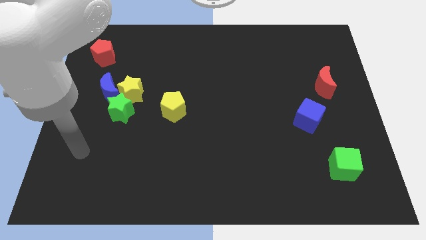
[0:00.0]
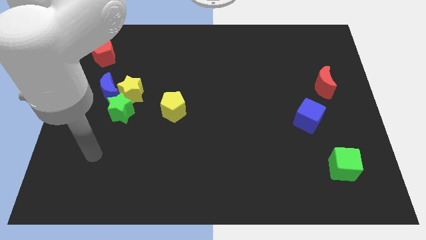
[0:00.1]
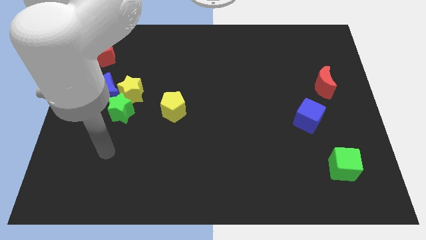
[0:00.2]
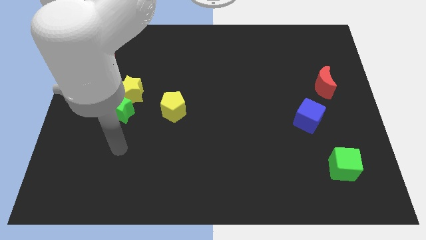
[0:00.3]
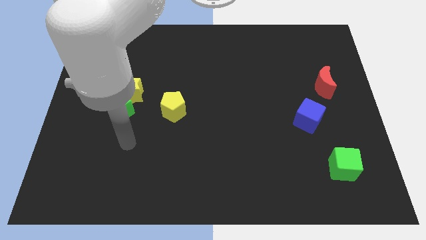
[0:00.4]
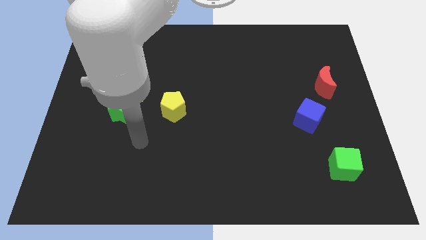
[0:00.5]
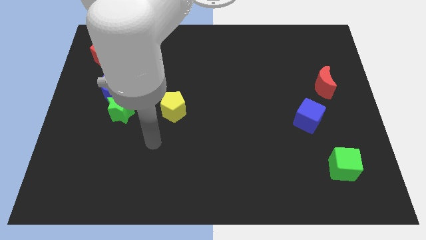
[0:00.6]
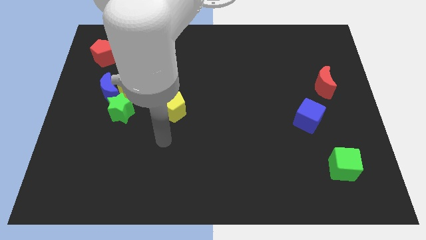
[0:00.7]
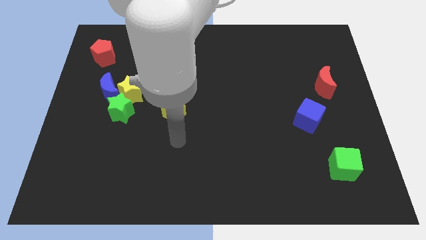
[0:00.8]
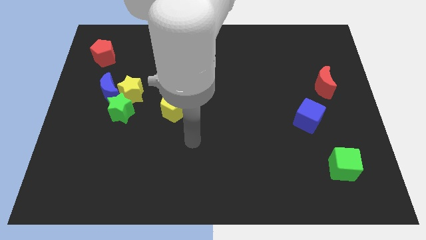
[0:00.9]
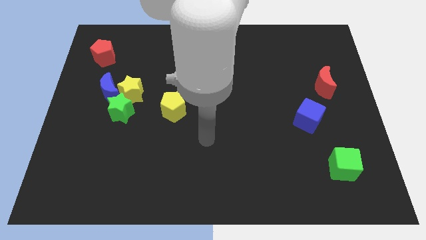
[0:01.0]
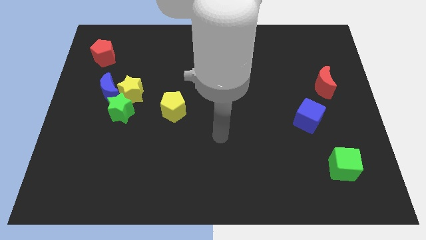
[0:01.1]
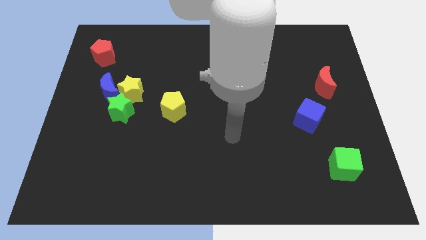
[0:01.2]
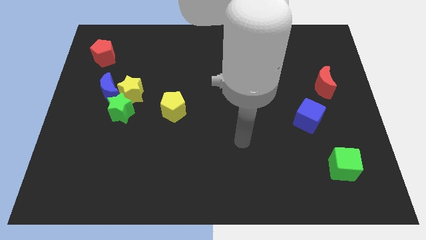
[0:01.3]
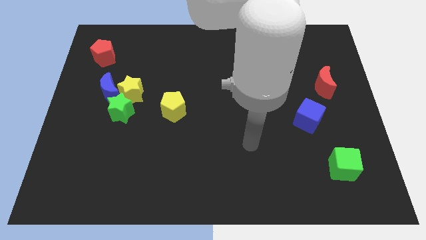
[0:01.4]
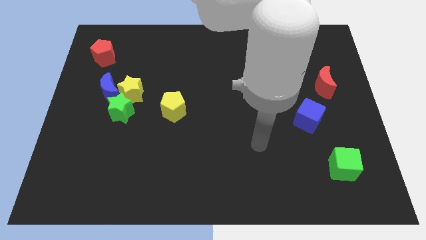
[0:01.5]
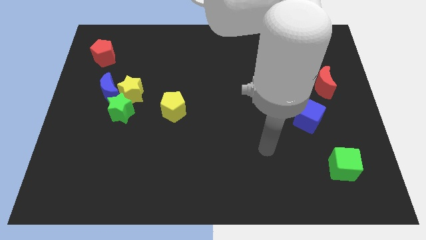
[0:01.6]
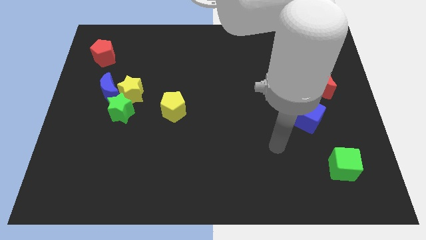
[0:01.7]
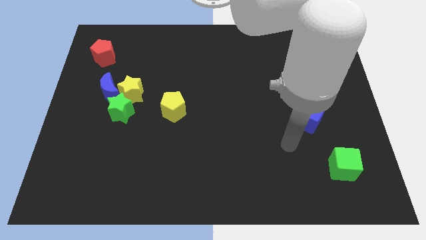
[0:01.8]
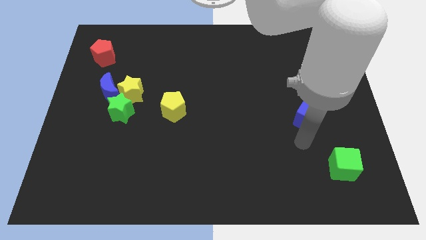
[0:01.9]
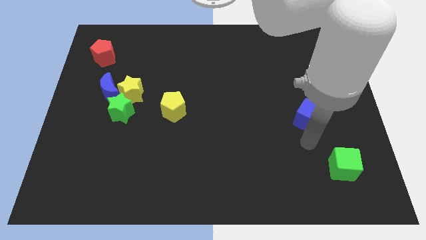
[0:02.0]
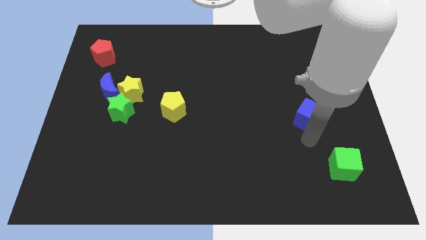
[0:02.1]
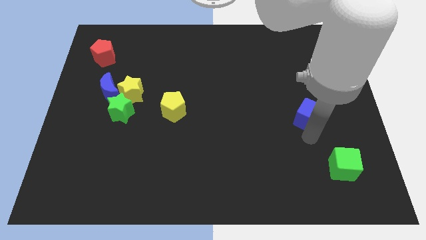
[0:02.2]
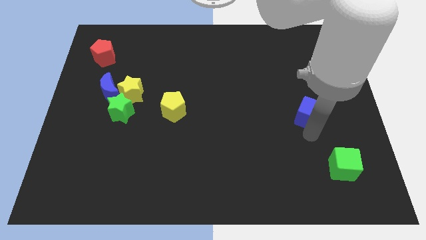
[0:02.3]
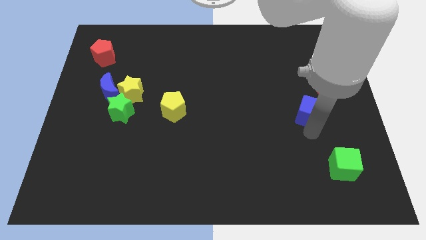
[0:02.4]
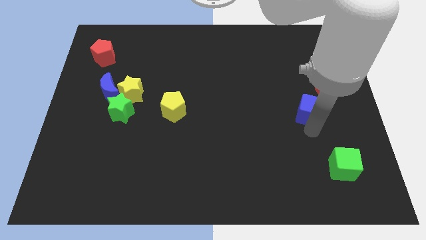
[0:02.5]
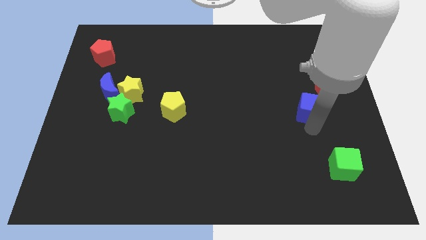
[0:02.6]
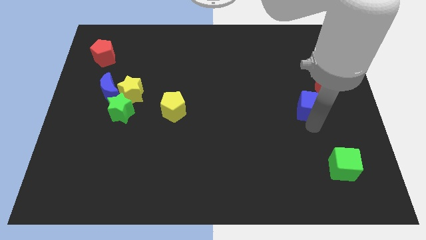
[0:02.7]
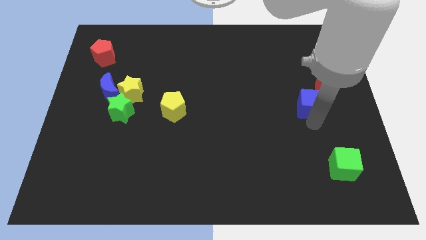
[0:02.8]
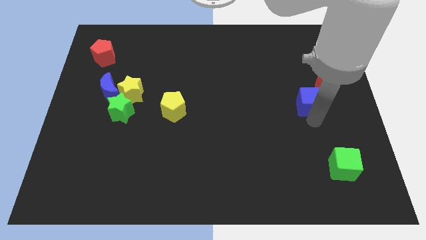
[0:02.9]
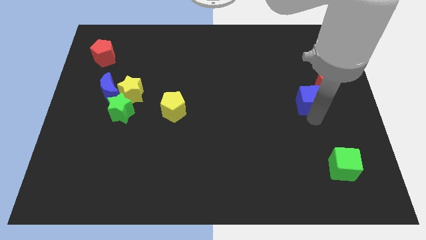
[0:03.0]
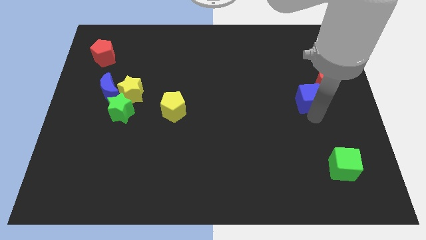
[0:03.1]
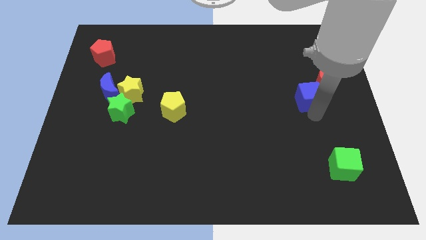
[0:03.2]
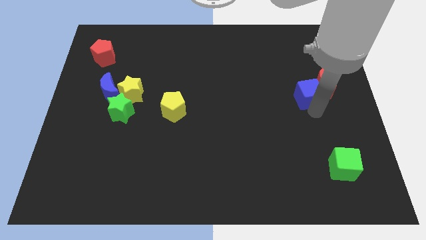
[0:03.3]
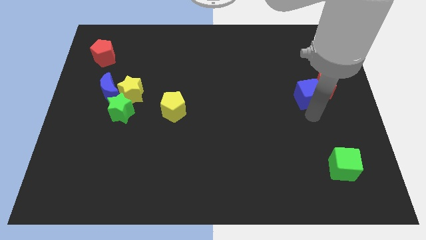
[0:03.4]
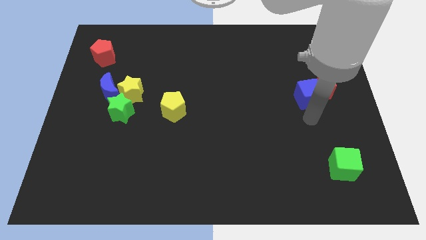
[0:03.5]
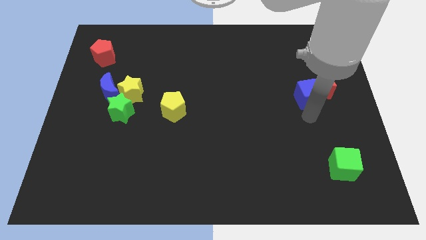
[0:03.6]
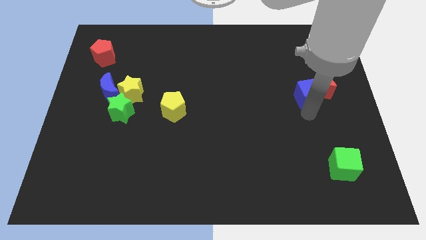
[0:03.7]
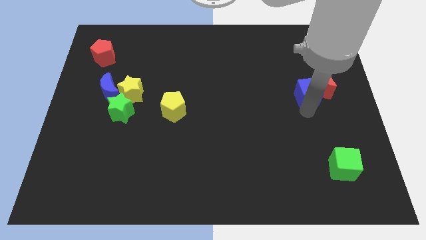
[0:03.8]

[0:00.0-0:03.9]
move the blue cube somewhat upwards

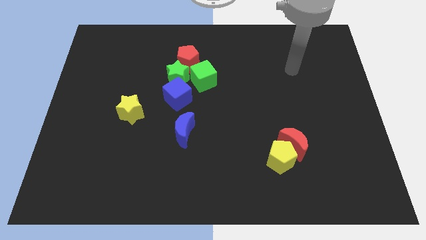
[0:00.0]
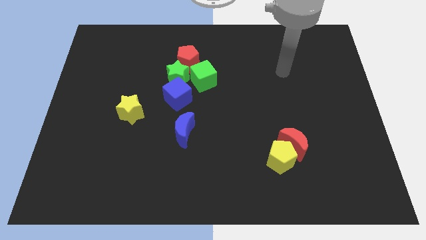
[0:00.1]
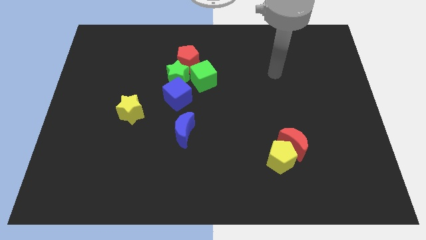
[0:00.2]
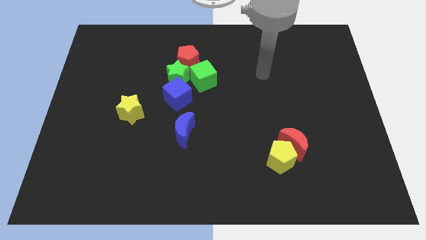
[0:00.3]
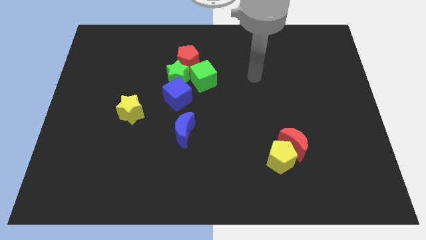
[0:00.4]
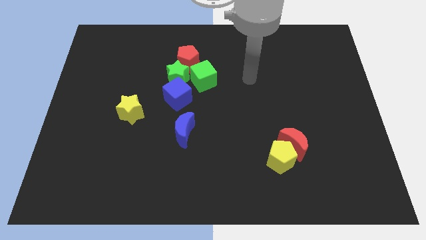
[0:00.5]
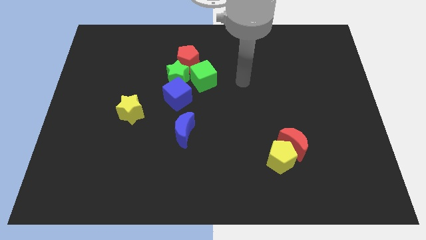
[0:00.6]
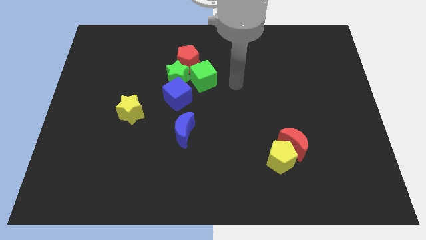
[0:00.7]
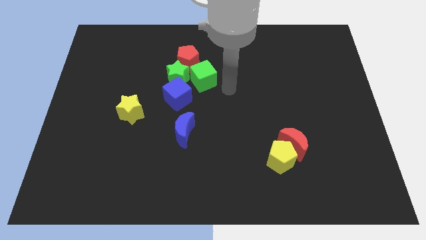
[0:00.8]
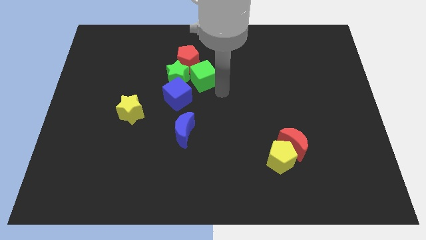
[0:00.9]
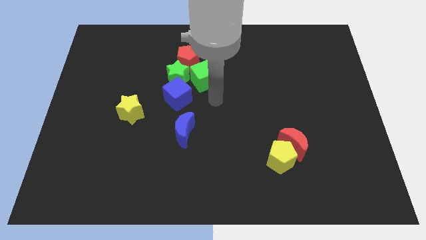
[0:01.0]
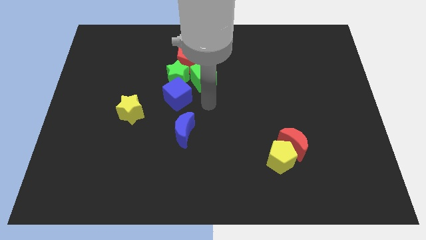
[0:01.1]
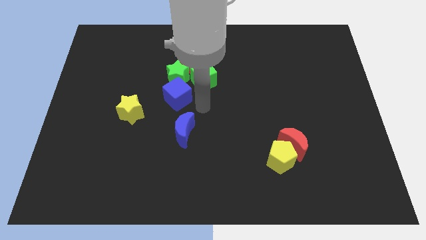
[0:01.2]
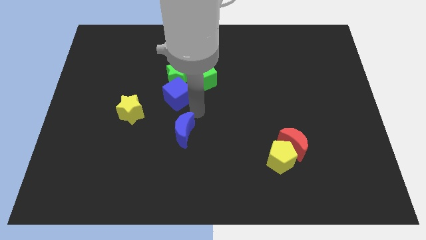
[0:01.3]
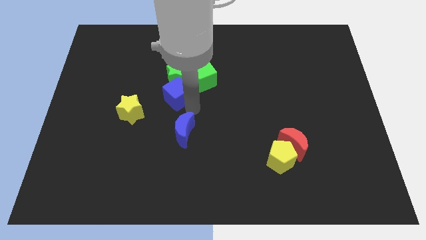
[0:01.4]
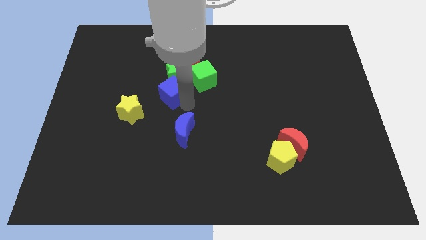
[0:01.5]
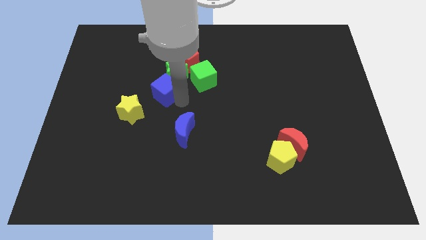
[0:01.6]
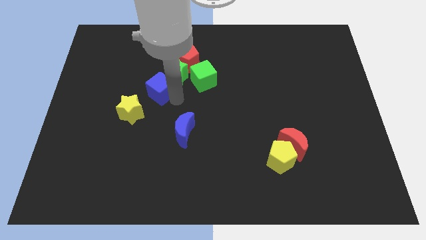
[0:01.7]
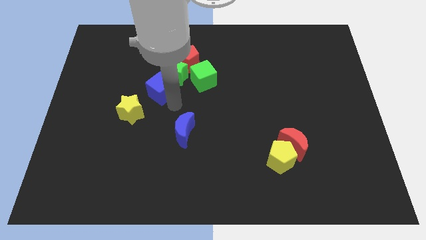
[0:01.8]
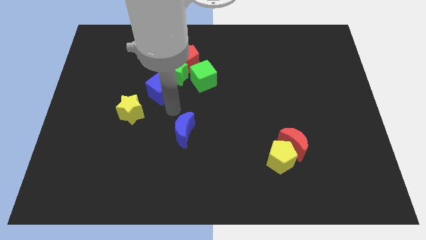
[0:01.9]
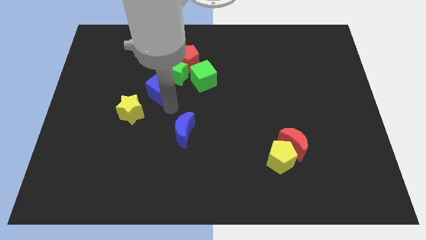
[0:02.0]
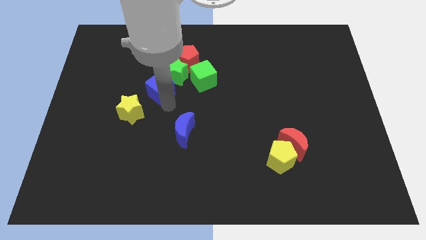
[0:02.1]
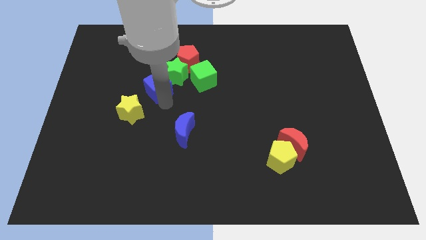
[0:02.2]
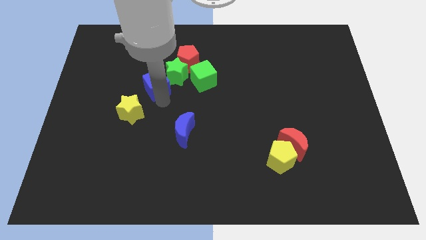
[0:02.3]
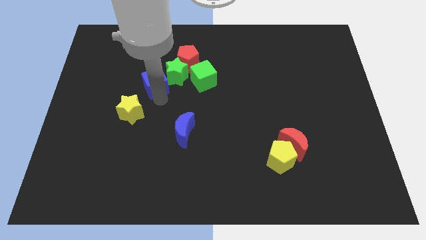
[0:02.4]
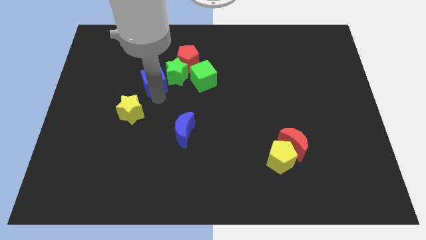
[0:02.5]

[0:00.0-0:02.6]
push the blue cube up and left slightly

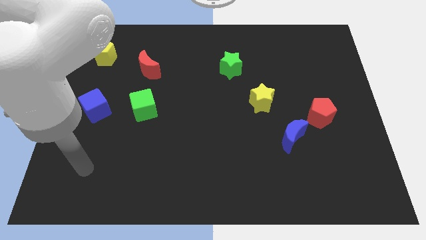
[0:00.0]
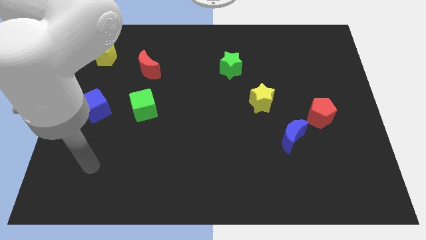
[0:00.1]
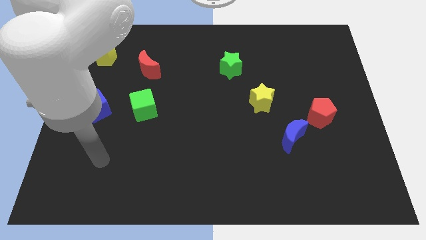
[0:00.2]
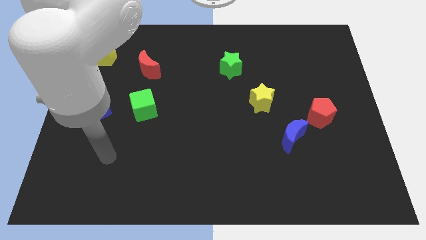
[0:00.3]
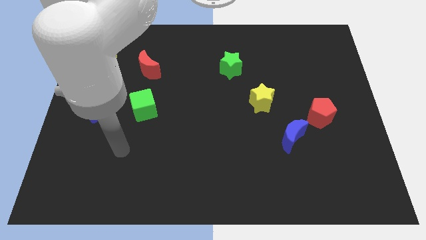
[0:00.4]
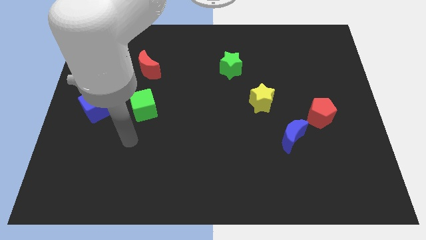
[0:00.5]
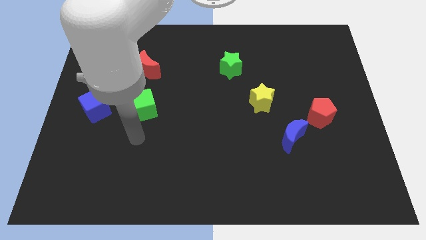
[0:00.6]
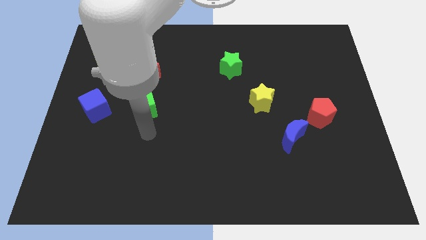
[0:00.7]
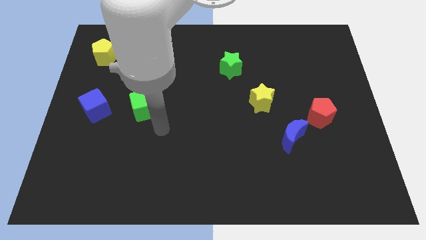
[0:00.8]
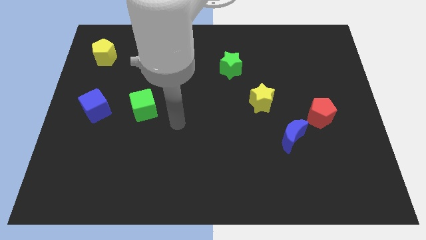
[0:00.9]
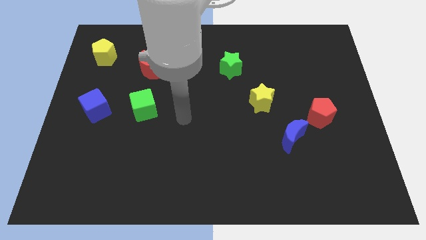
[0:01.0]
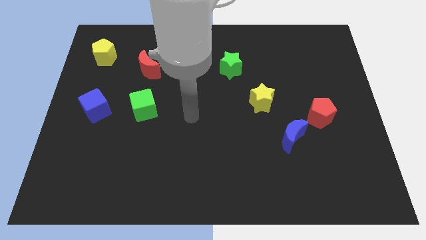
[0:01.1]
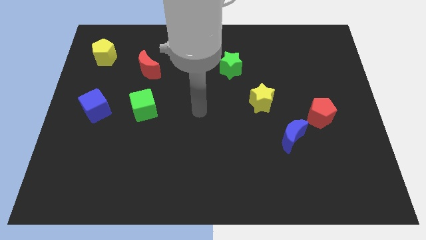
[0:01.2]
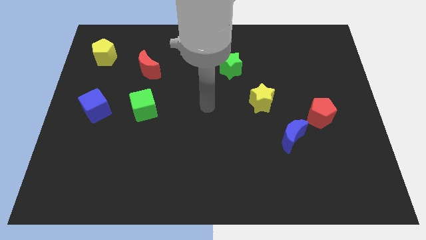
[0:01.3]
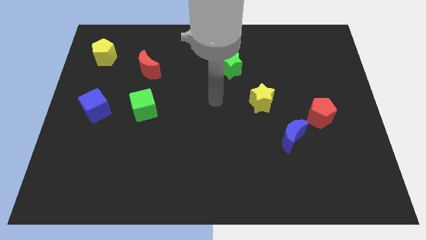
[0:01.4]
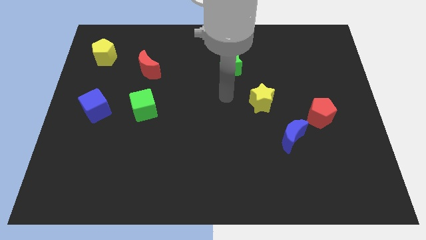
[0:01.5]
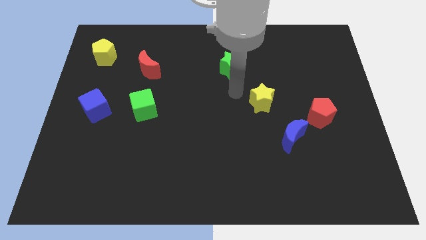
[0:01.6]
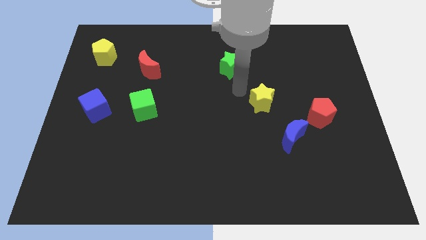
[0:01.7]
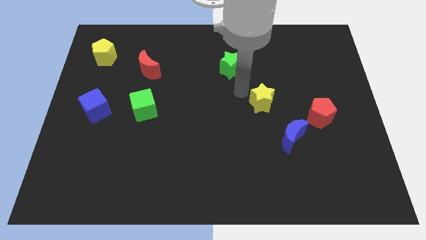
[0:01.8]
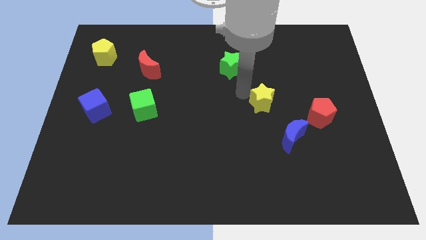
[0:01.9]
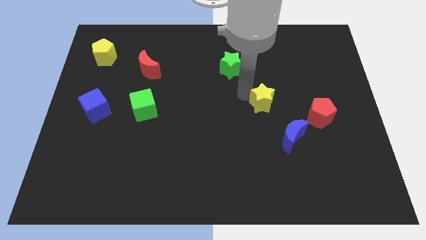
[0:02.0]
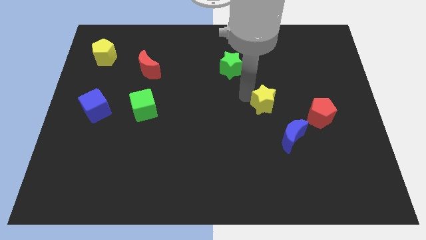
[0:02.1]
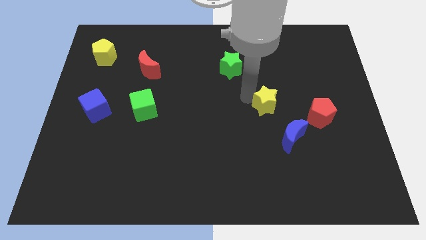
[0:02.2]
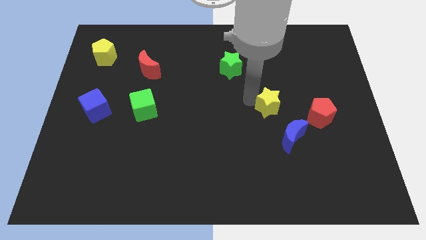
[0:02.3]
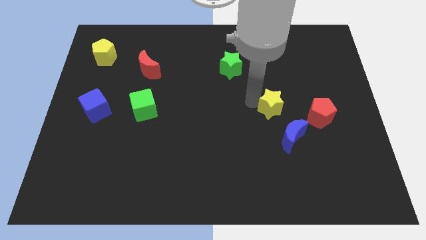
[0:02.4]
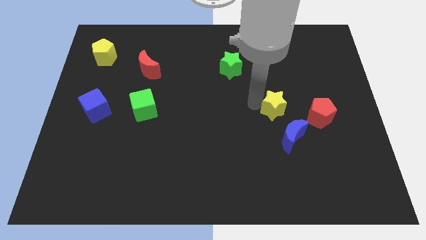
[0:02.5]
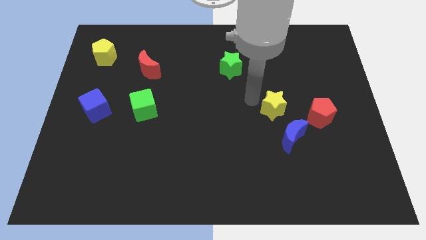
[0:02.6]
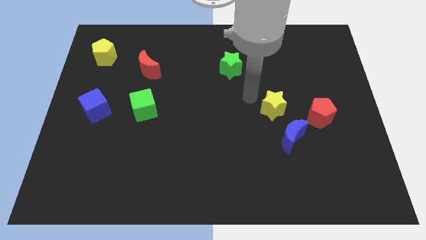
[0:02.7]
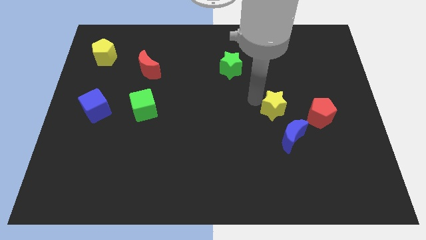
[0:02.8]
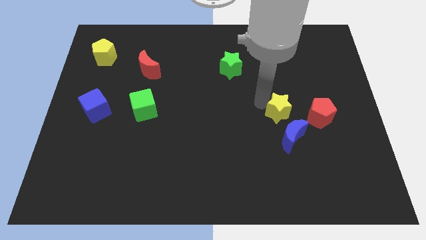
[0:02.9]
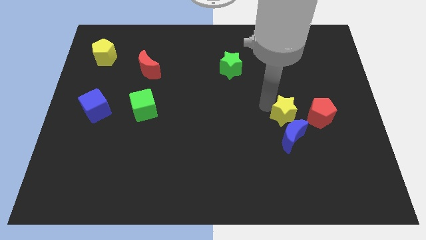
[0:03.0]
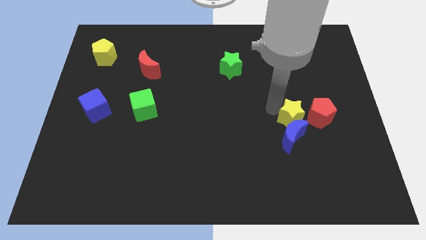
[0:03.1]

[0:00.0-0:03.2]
push the yellow star down and then to the right slightly
